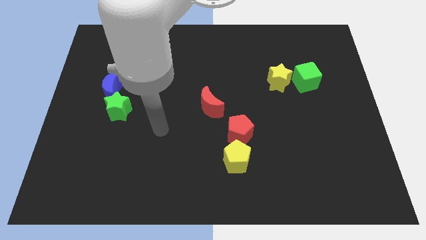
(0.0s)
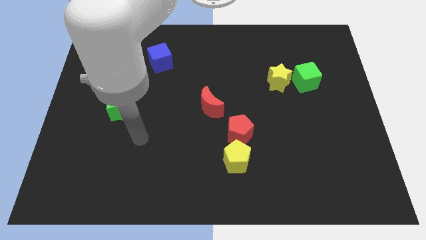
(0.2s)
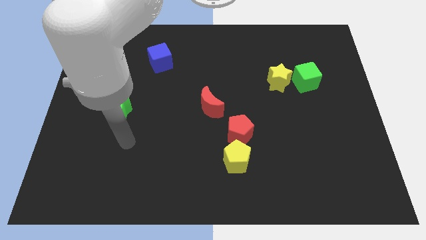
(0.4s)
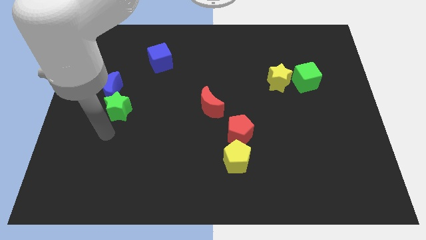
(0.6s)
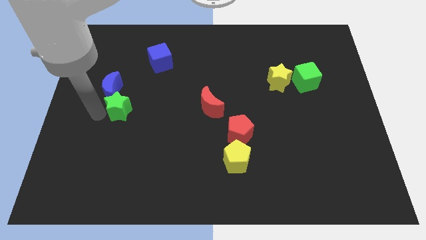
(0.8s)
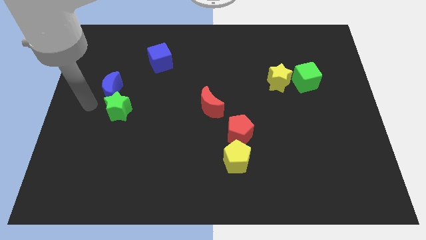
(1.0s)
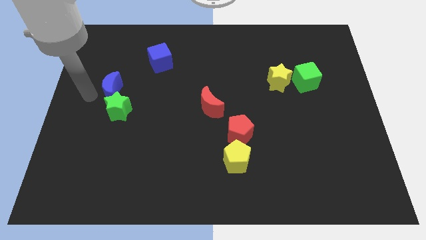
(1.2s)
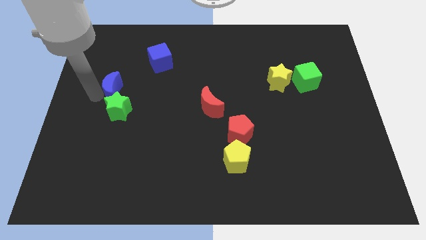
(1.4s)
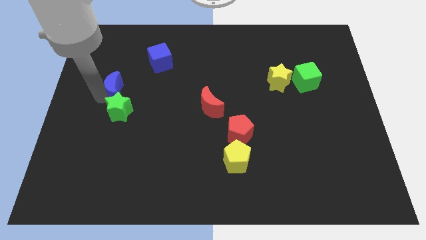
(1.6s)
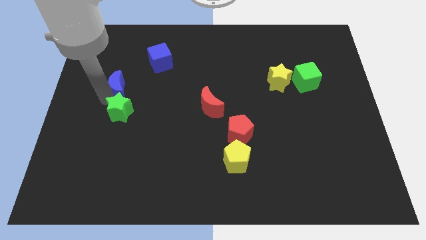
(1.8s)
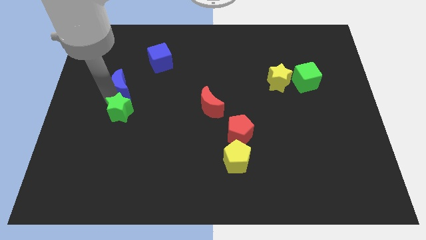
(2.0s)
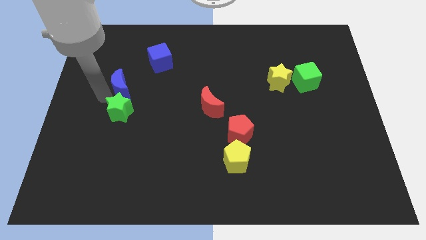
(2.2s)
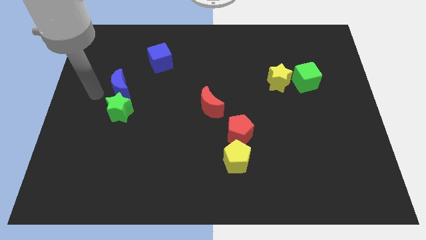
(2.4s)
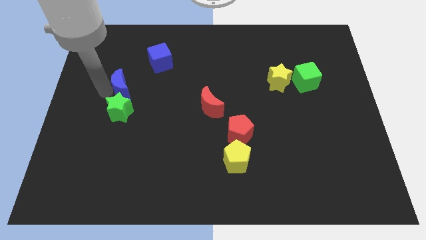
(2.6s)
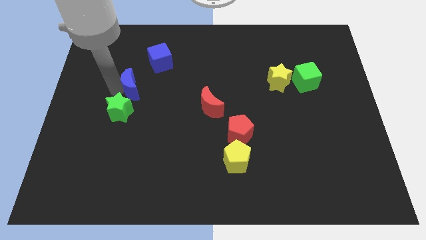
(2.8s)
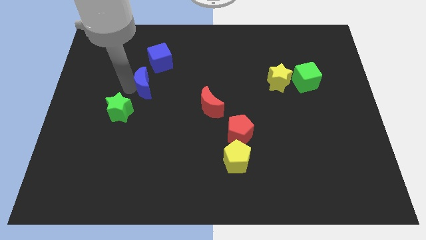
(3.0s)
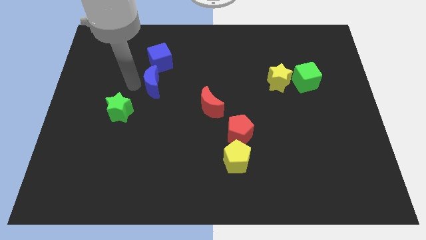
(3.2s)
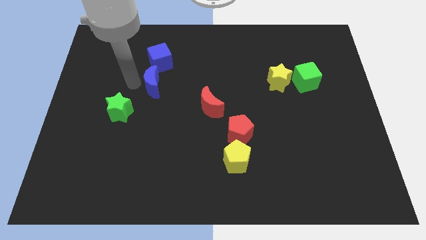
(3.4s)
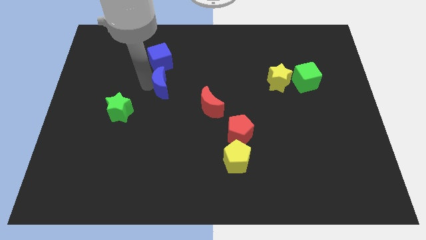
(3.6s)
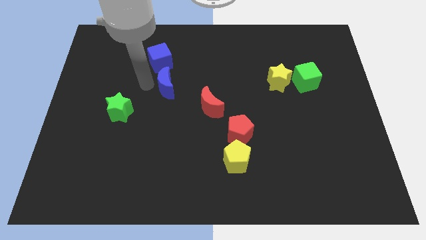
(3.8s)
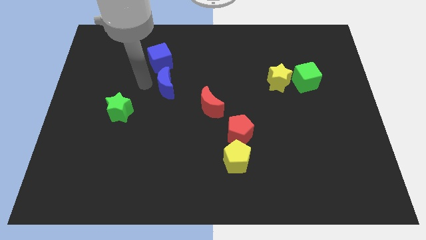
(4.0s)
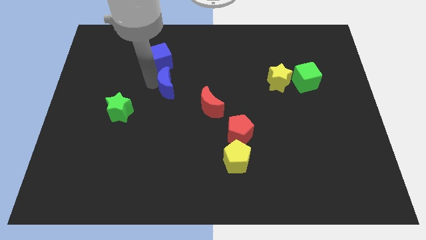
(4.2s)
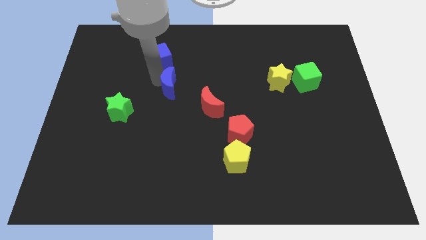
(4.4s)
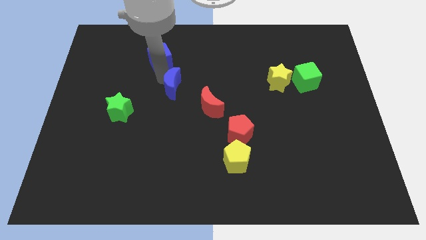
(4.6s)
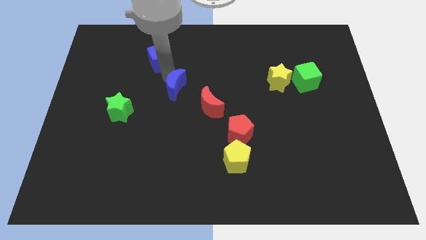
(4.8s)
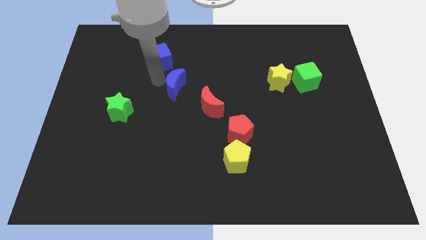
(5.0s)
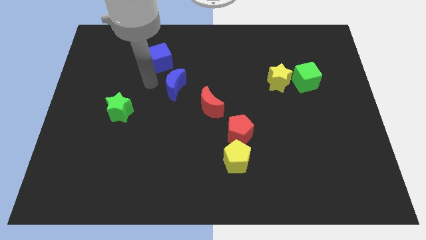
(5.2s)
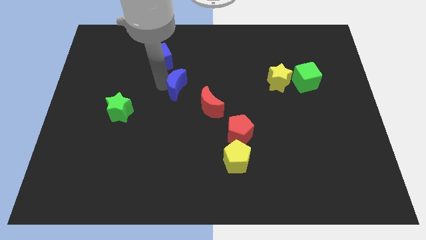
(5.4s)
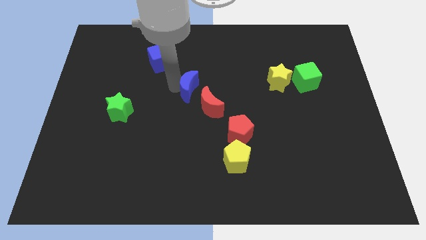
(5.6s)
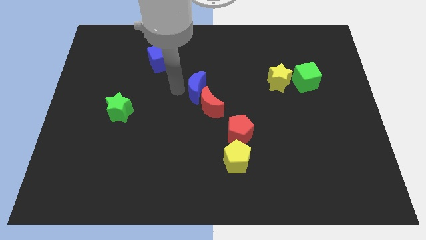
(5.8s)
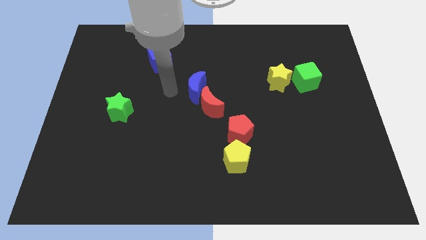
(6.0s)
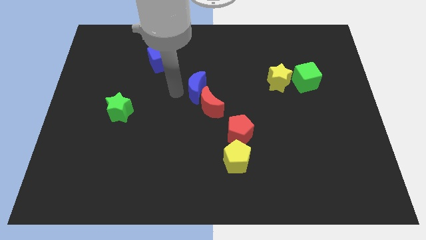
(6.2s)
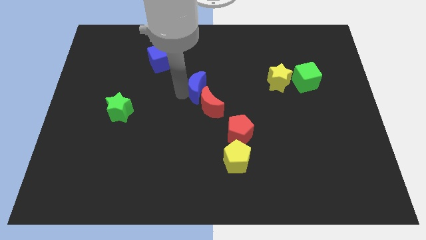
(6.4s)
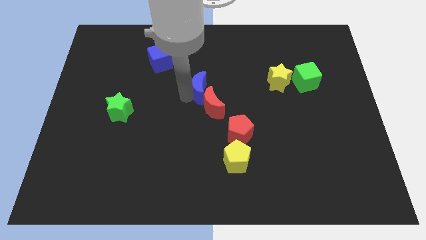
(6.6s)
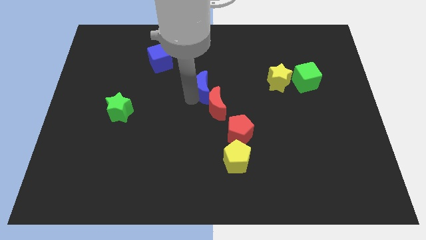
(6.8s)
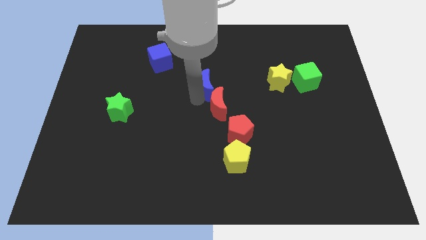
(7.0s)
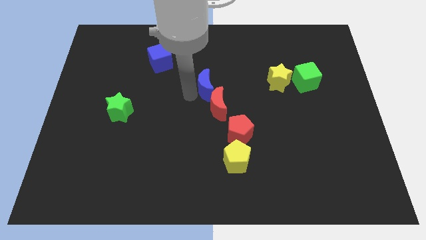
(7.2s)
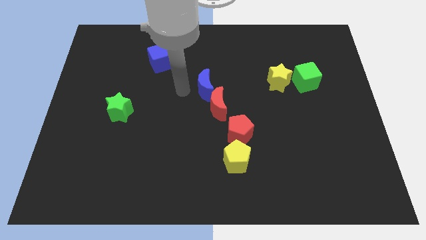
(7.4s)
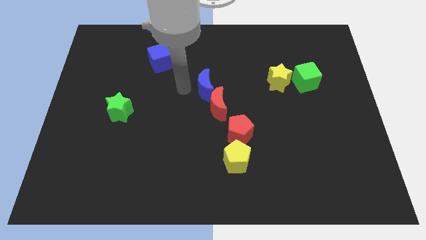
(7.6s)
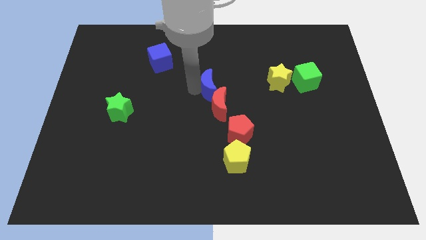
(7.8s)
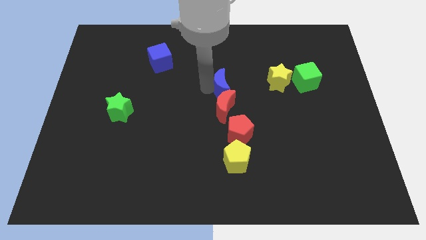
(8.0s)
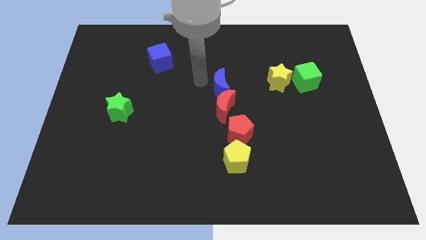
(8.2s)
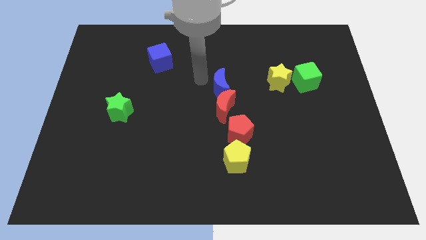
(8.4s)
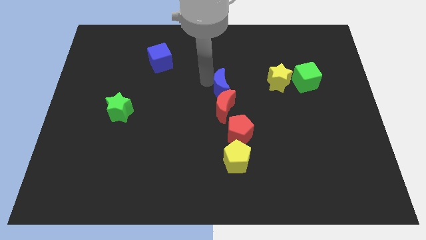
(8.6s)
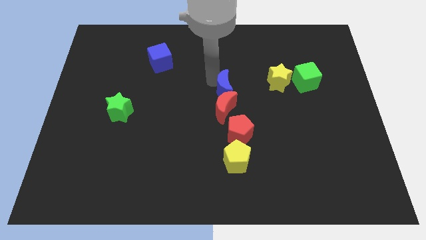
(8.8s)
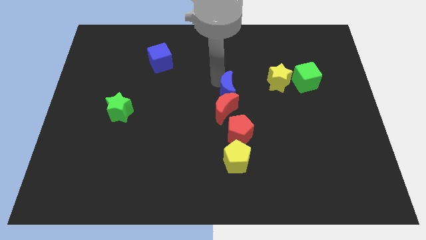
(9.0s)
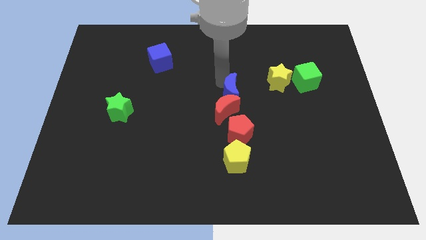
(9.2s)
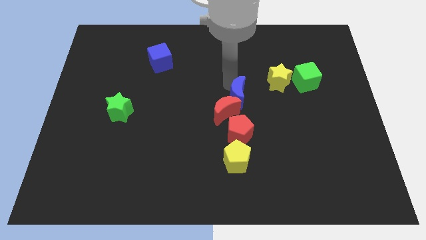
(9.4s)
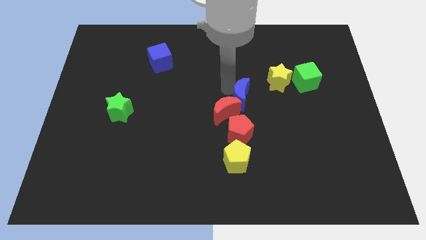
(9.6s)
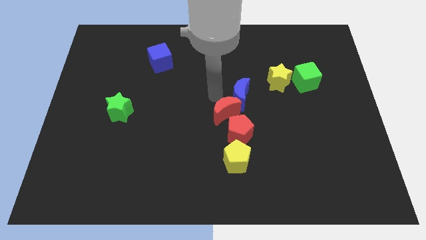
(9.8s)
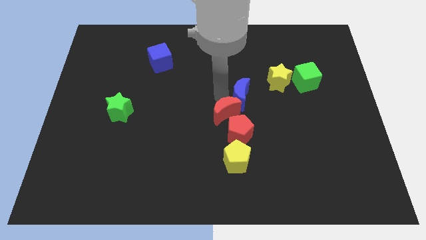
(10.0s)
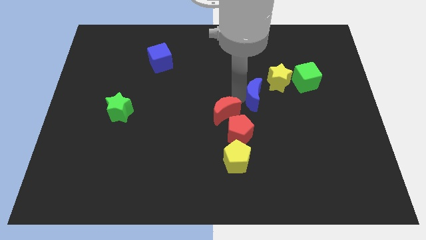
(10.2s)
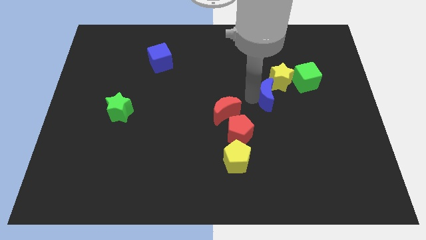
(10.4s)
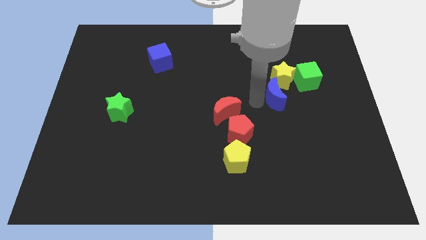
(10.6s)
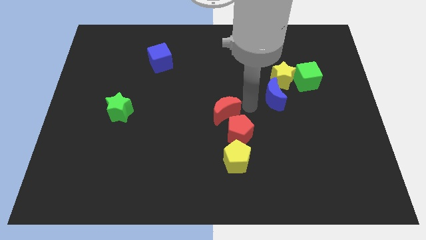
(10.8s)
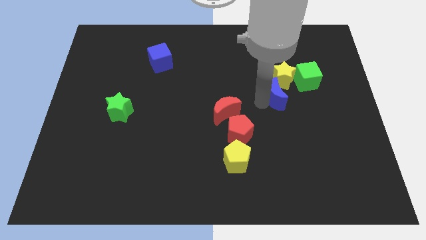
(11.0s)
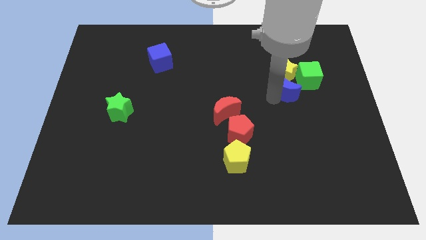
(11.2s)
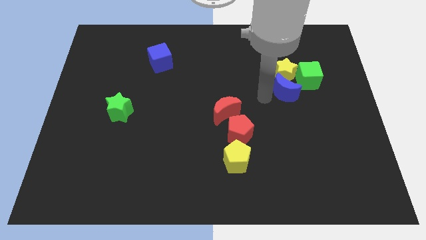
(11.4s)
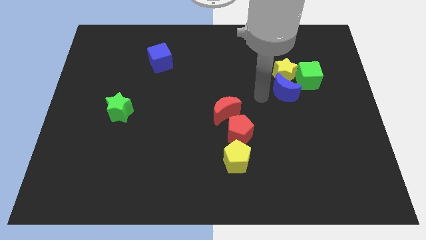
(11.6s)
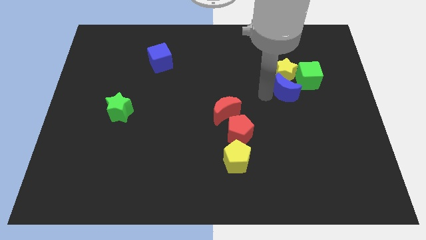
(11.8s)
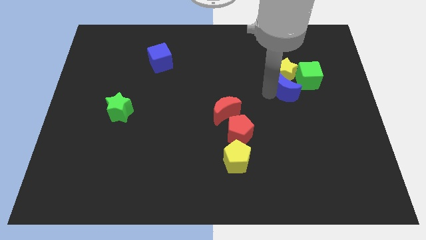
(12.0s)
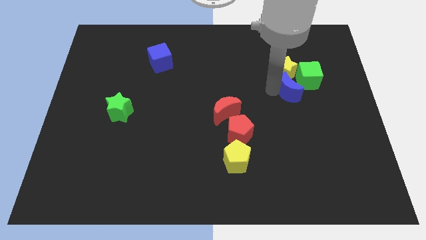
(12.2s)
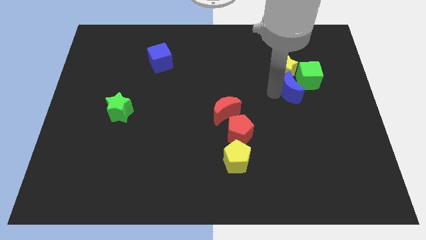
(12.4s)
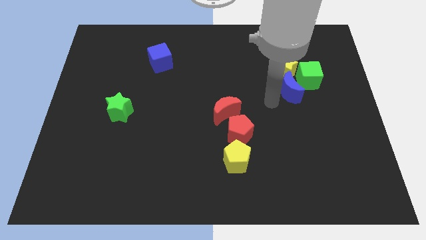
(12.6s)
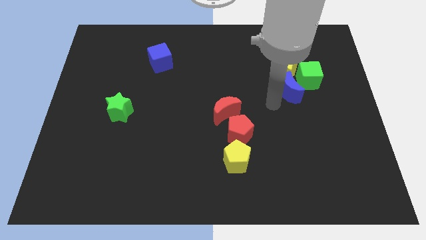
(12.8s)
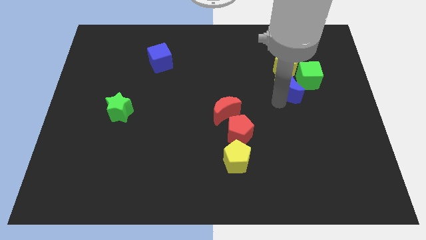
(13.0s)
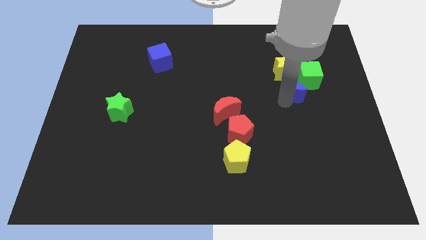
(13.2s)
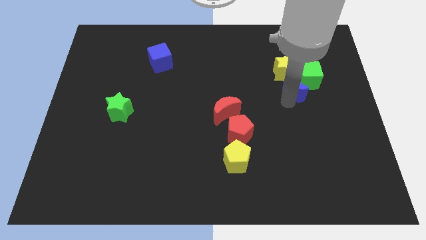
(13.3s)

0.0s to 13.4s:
push the blue moon close to the green cube
